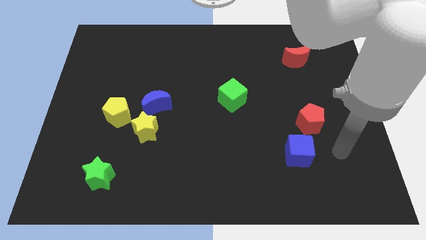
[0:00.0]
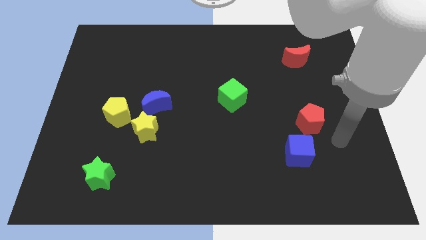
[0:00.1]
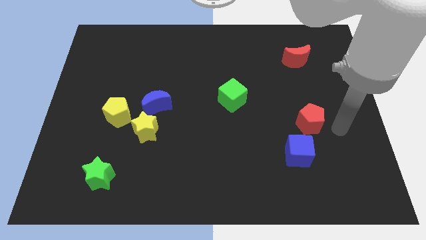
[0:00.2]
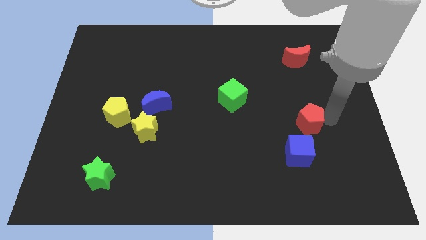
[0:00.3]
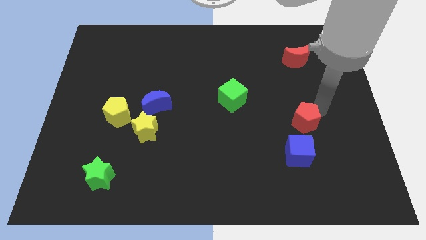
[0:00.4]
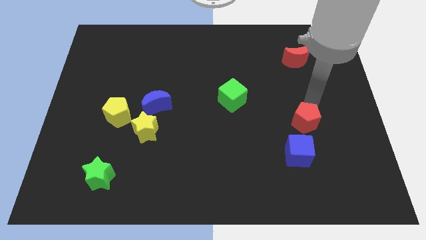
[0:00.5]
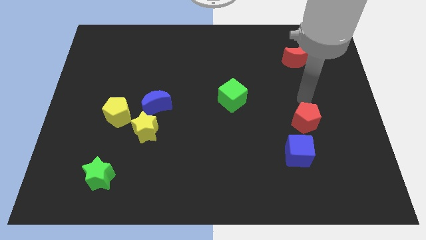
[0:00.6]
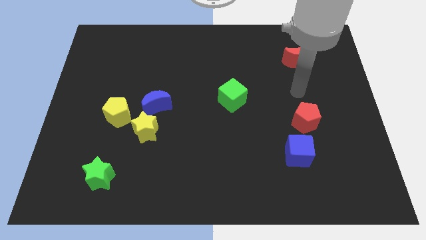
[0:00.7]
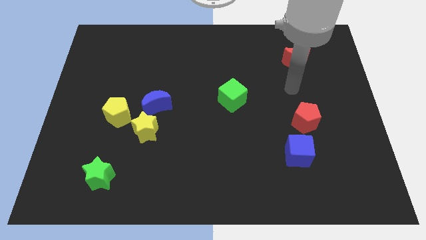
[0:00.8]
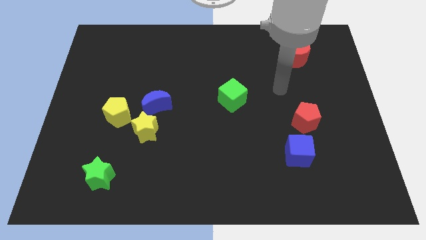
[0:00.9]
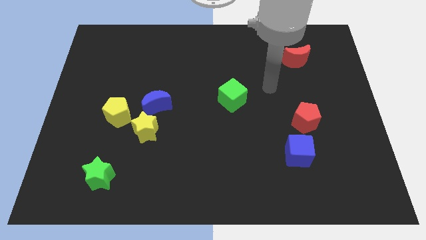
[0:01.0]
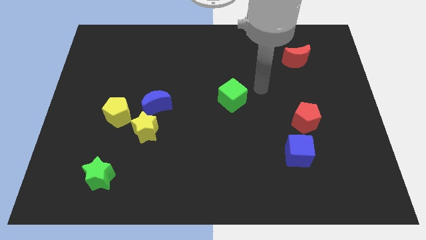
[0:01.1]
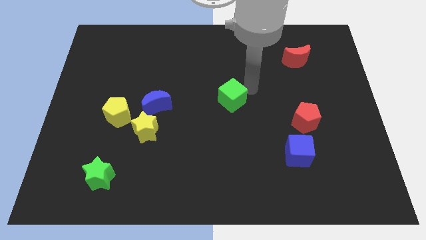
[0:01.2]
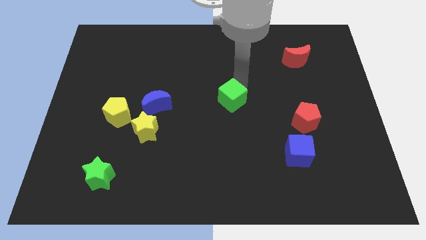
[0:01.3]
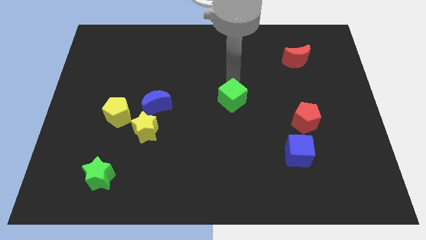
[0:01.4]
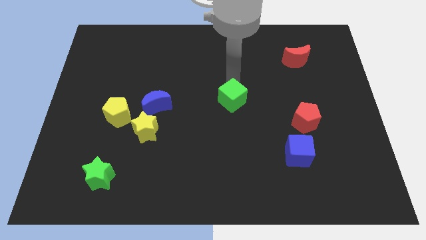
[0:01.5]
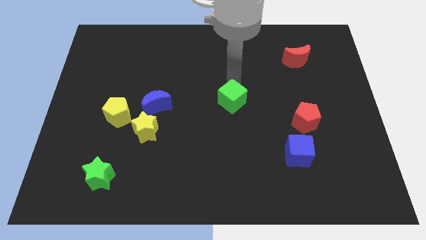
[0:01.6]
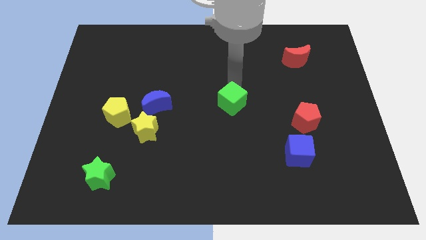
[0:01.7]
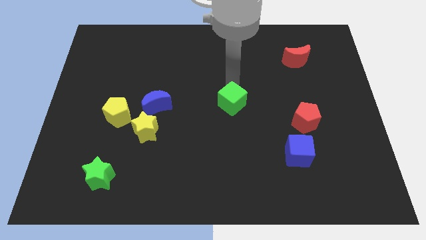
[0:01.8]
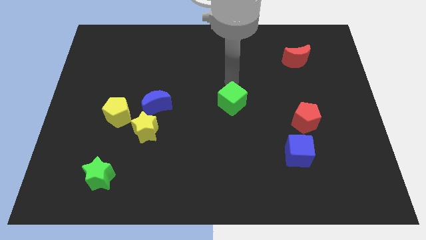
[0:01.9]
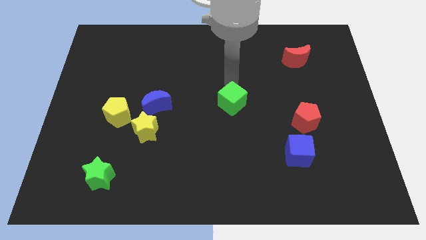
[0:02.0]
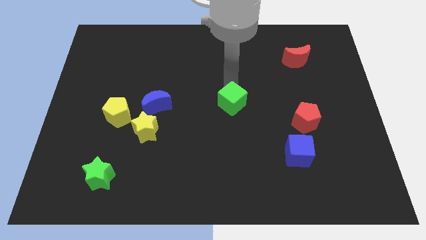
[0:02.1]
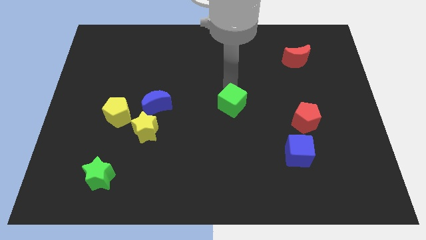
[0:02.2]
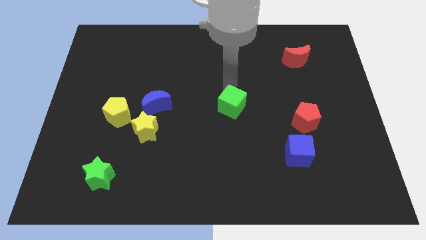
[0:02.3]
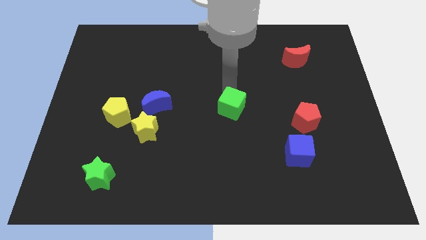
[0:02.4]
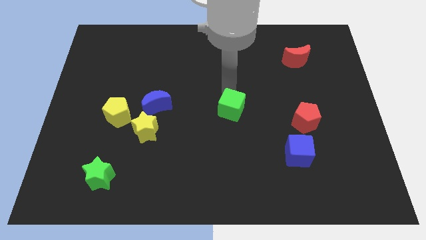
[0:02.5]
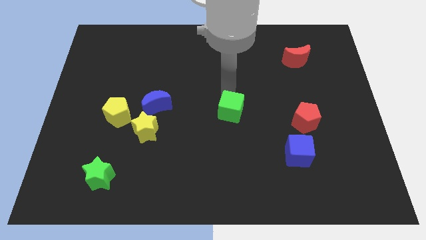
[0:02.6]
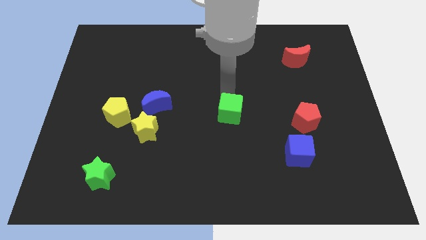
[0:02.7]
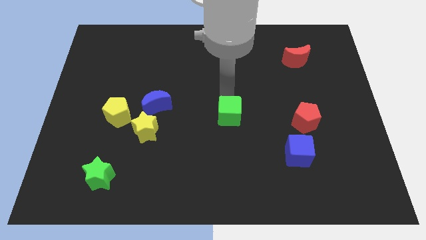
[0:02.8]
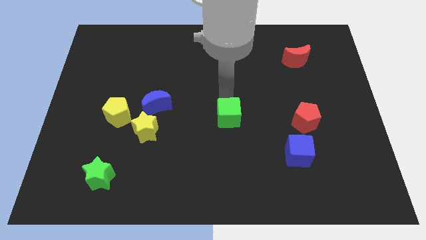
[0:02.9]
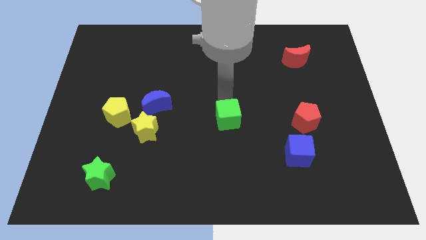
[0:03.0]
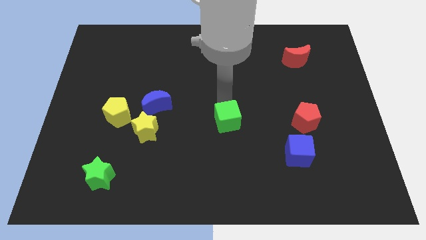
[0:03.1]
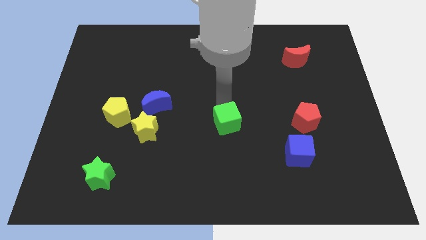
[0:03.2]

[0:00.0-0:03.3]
push the green cube somewhat downwards

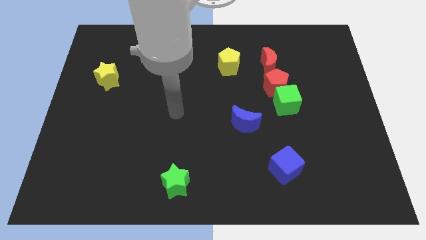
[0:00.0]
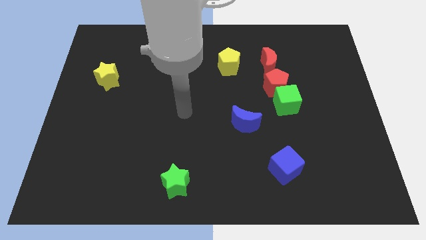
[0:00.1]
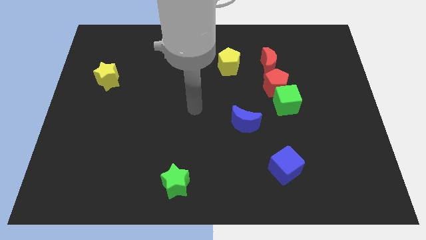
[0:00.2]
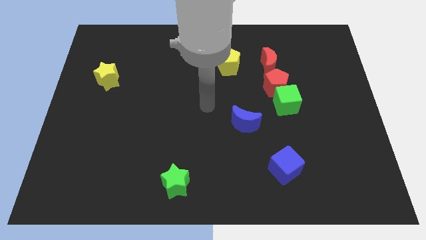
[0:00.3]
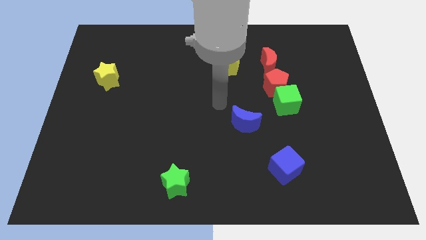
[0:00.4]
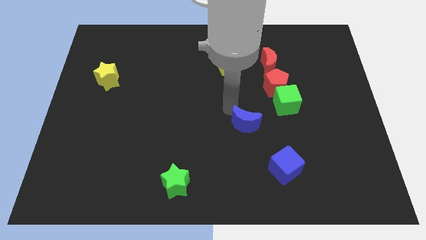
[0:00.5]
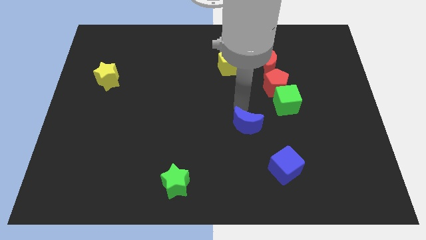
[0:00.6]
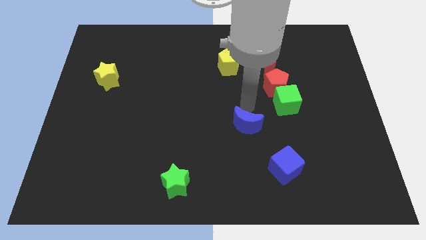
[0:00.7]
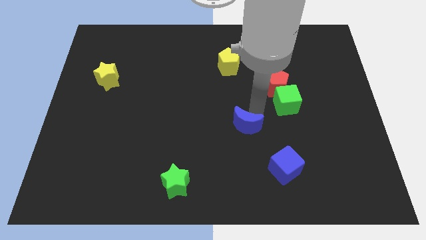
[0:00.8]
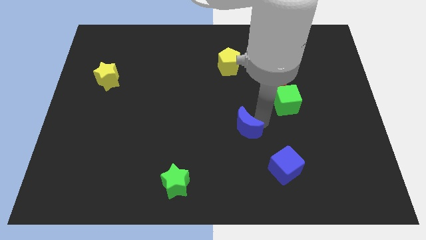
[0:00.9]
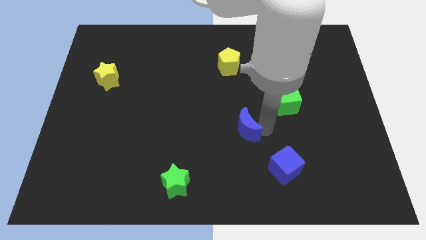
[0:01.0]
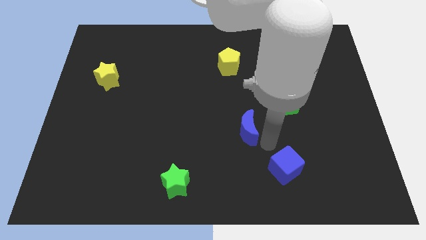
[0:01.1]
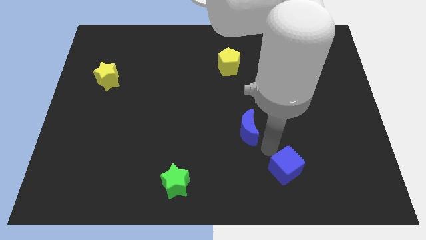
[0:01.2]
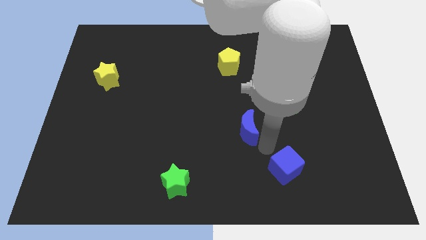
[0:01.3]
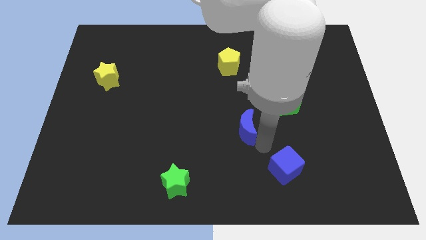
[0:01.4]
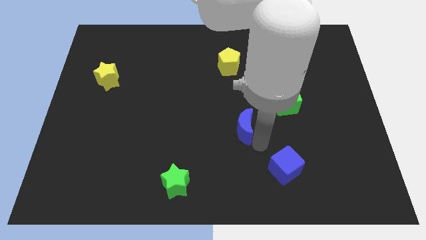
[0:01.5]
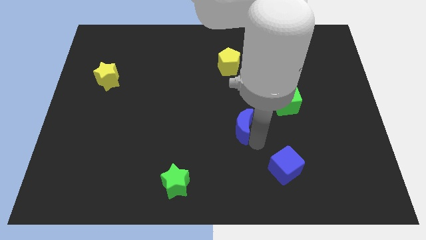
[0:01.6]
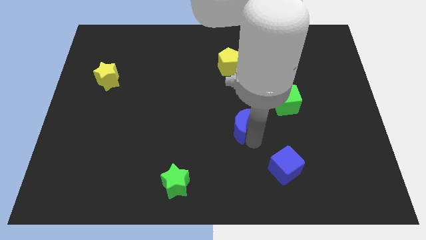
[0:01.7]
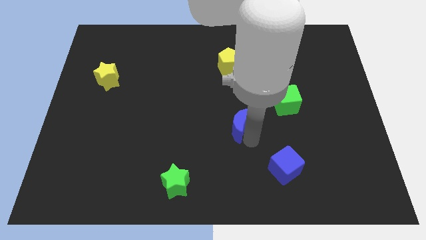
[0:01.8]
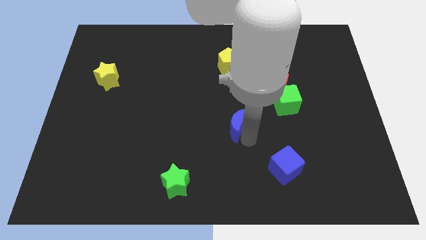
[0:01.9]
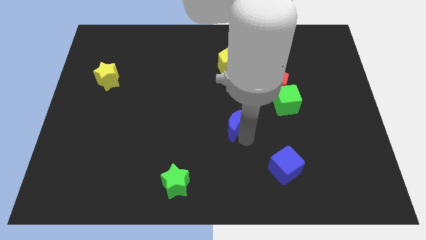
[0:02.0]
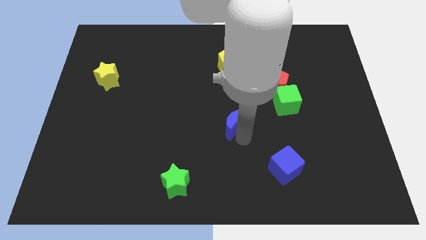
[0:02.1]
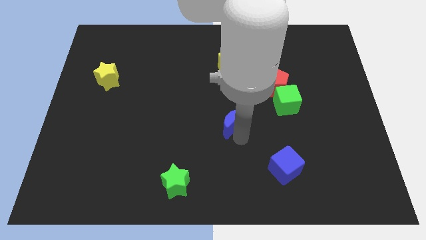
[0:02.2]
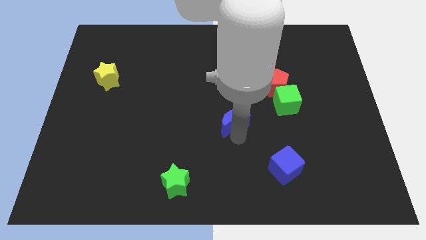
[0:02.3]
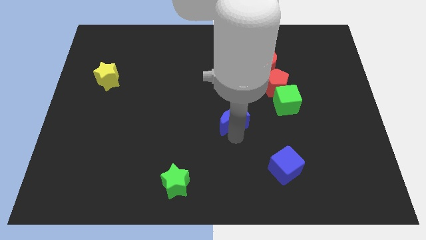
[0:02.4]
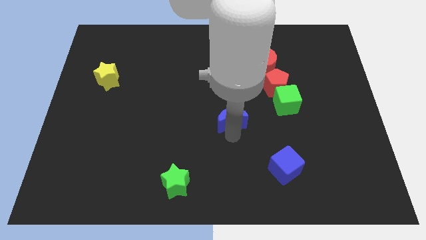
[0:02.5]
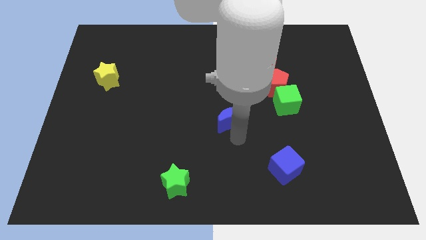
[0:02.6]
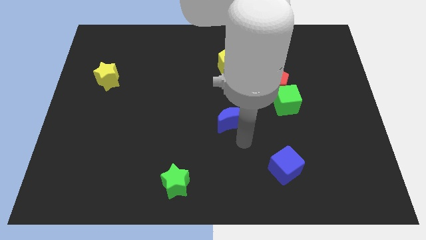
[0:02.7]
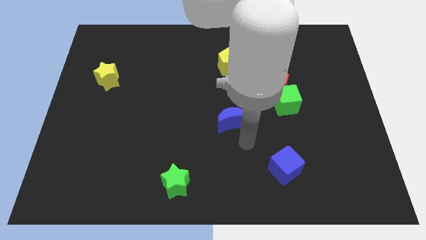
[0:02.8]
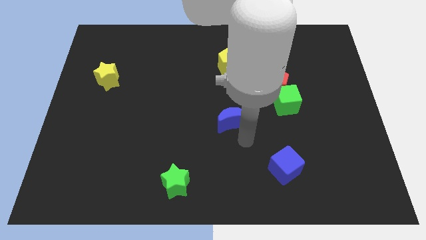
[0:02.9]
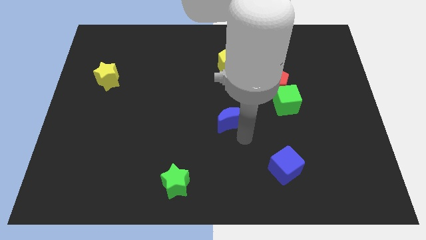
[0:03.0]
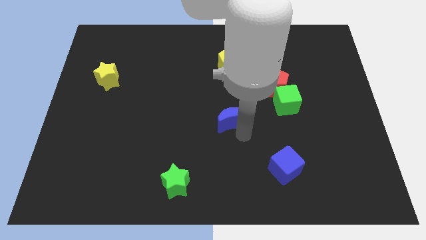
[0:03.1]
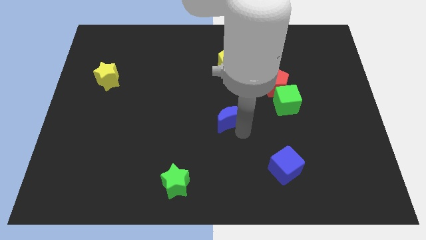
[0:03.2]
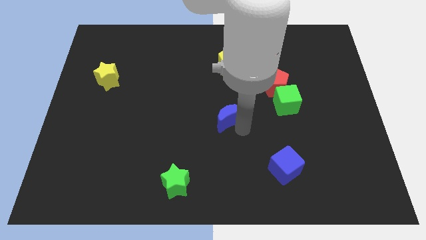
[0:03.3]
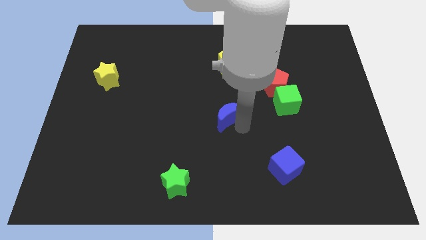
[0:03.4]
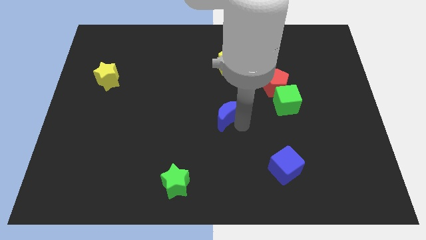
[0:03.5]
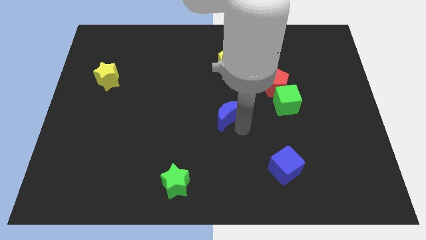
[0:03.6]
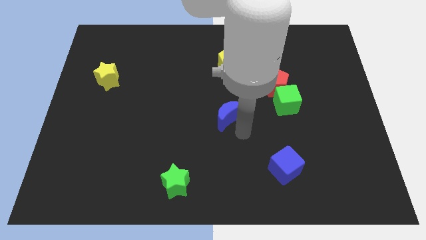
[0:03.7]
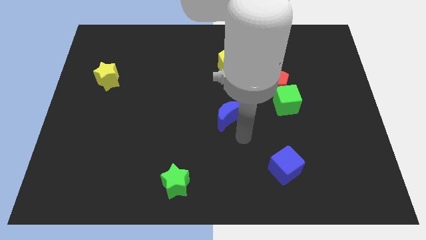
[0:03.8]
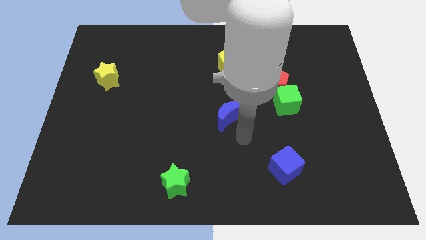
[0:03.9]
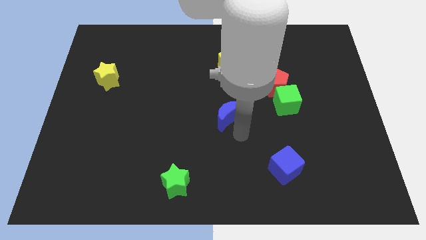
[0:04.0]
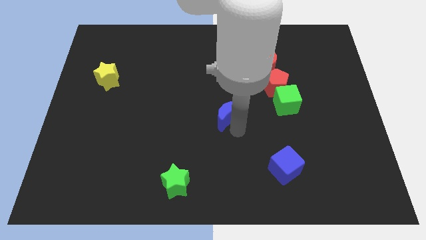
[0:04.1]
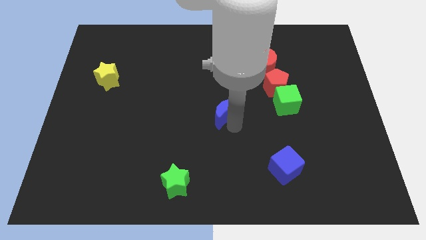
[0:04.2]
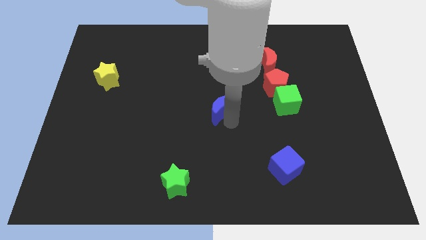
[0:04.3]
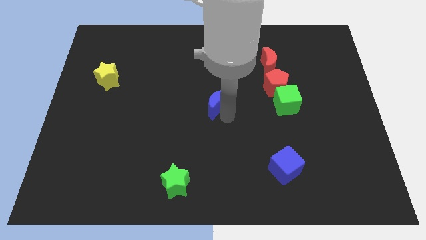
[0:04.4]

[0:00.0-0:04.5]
move the blue moon upwards and left somewhat

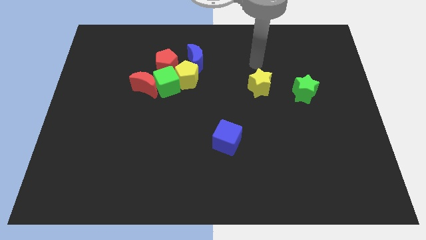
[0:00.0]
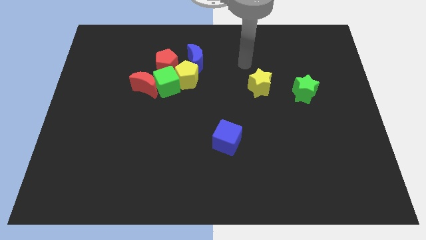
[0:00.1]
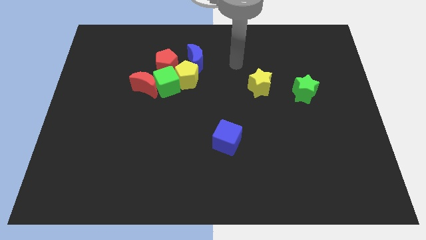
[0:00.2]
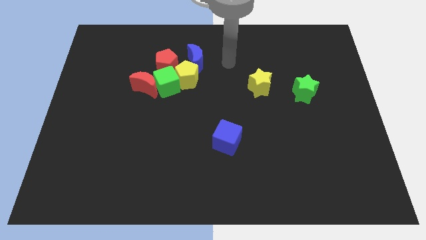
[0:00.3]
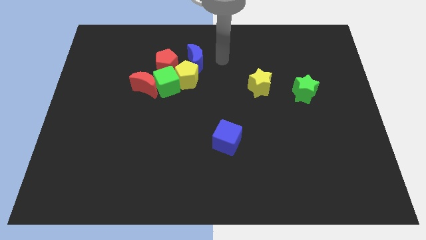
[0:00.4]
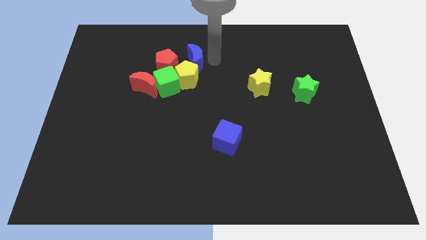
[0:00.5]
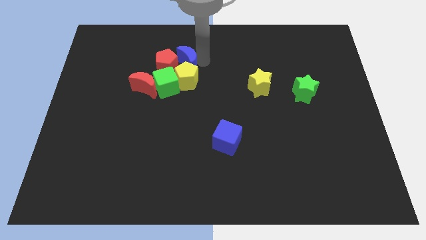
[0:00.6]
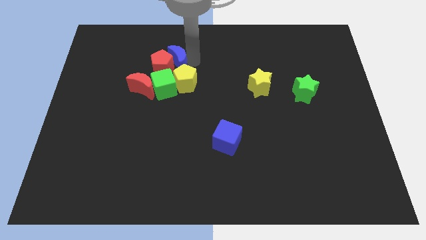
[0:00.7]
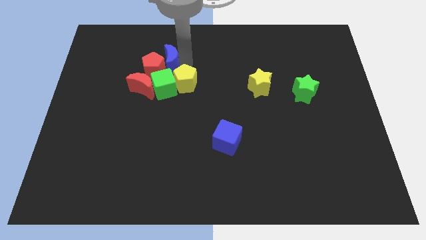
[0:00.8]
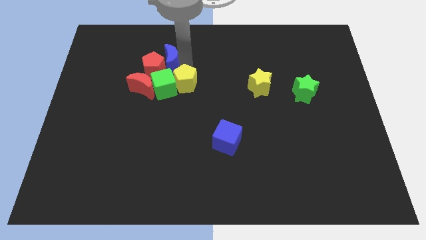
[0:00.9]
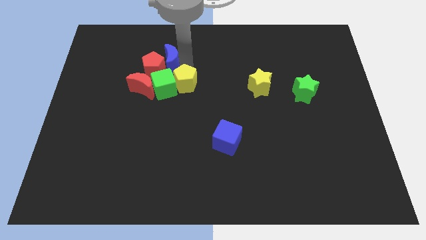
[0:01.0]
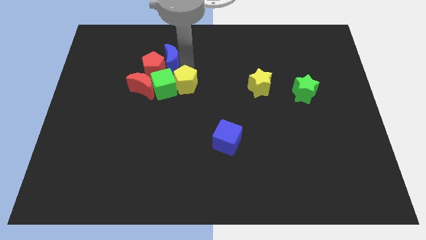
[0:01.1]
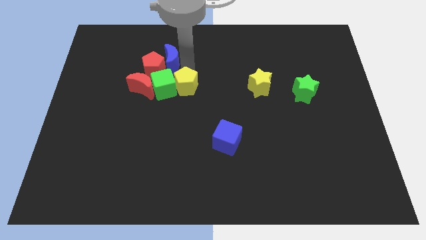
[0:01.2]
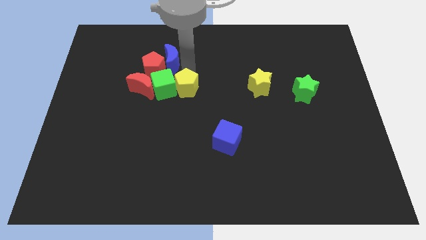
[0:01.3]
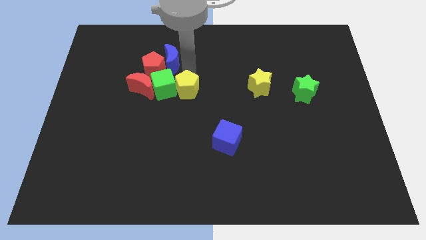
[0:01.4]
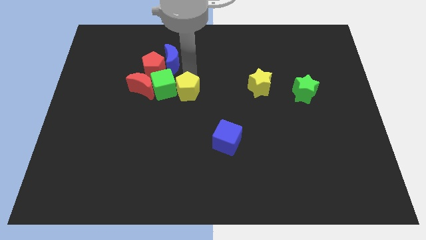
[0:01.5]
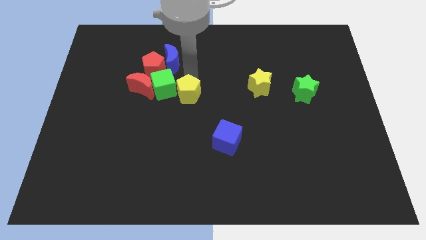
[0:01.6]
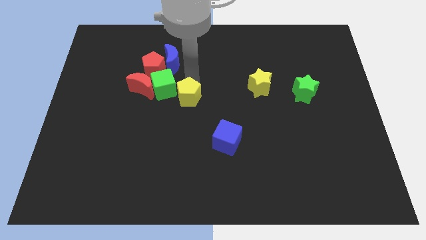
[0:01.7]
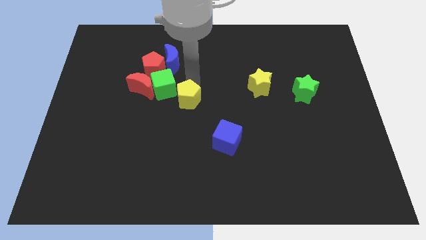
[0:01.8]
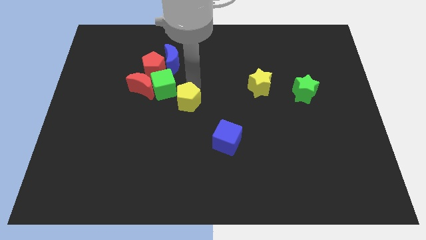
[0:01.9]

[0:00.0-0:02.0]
slide the yellow pentagon down slightly
